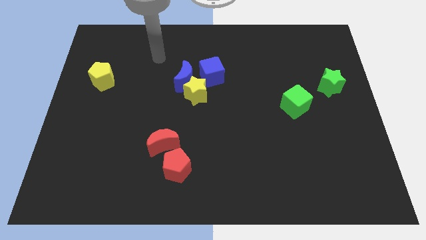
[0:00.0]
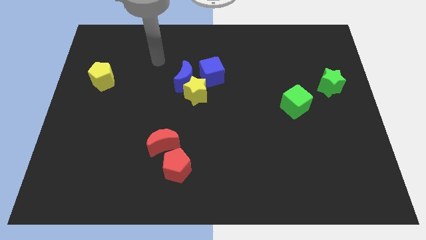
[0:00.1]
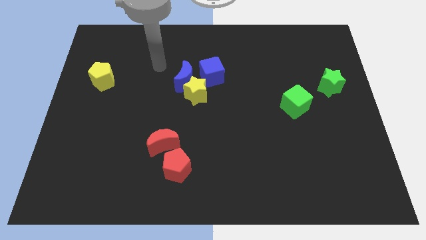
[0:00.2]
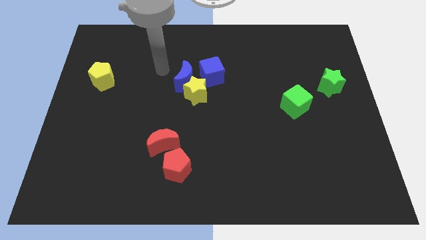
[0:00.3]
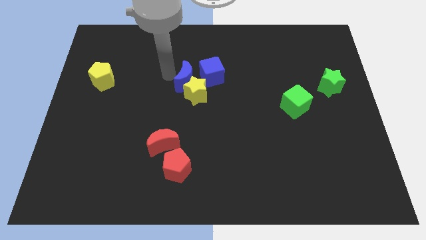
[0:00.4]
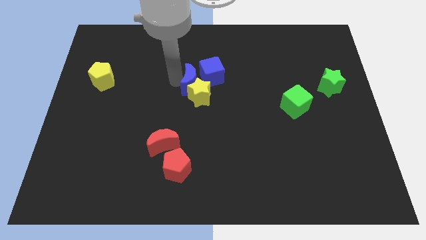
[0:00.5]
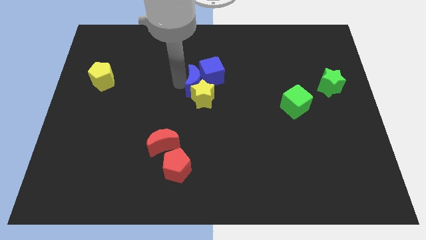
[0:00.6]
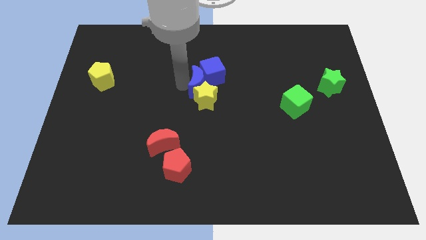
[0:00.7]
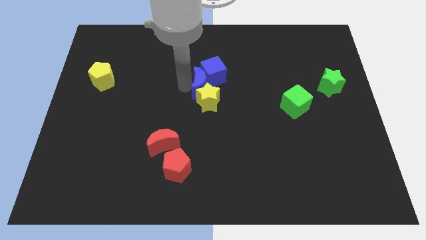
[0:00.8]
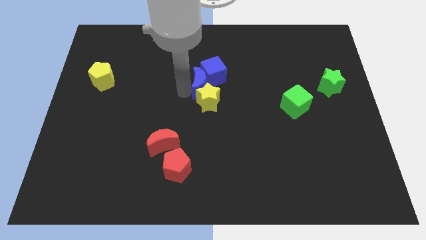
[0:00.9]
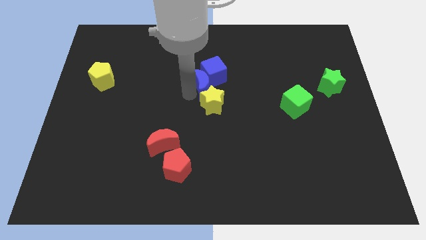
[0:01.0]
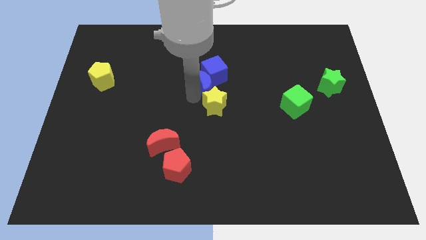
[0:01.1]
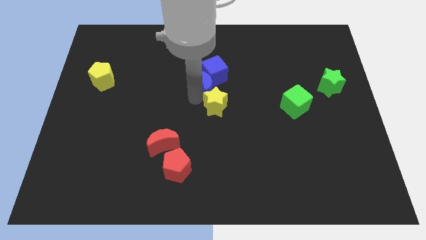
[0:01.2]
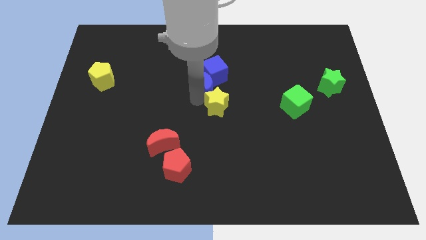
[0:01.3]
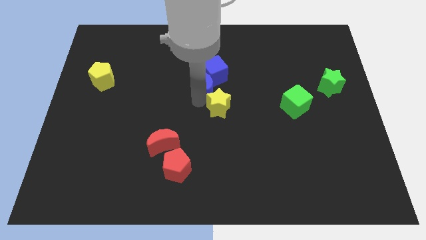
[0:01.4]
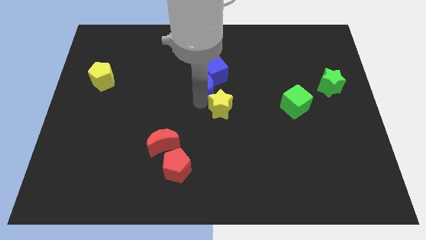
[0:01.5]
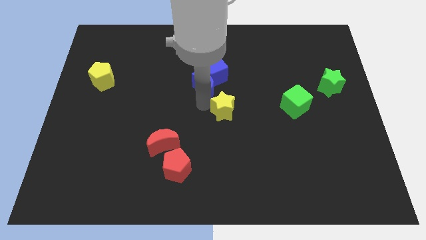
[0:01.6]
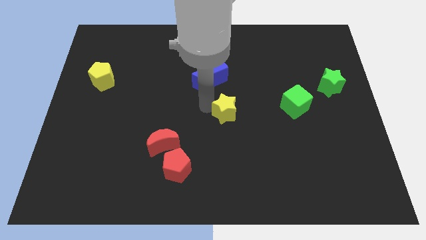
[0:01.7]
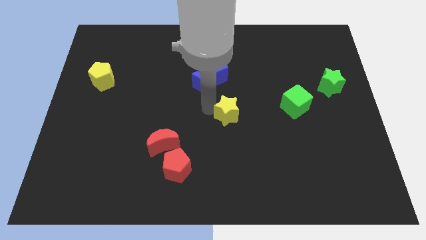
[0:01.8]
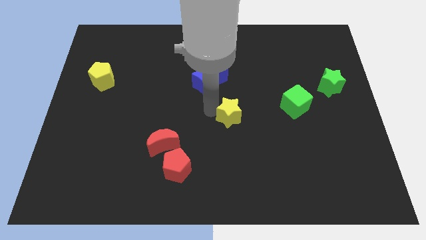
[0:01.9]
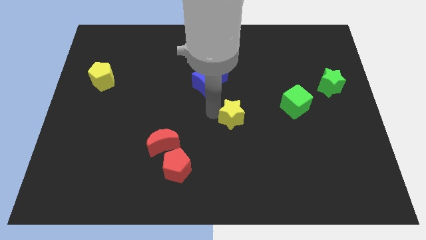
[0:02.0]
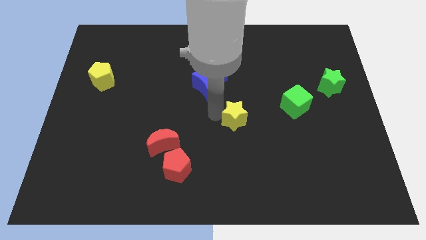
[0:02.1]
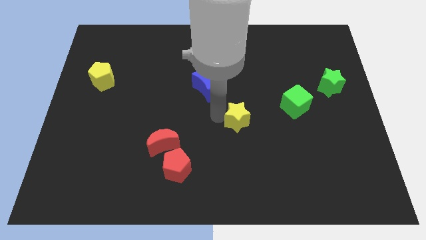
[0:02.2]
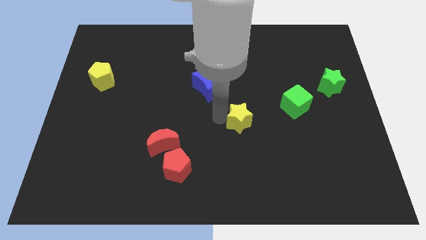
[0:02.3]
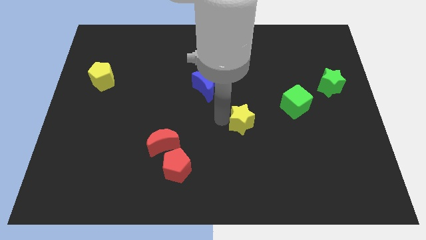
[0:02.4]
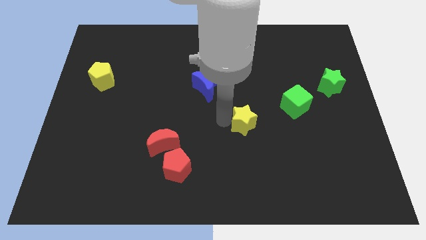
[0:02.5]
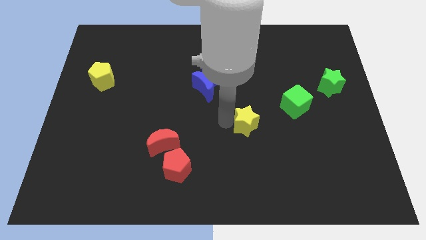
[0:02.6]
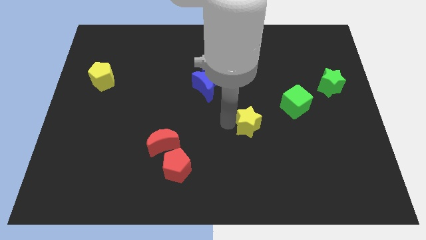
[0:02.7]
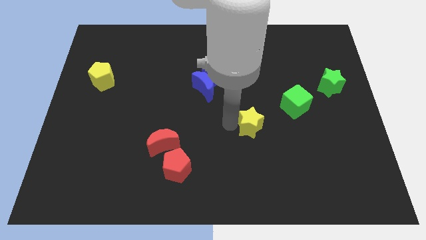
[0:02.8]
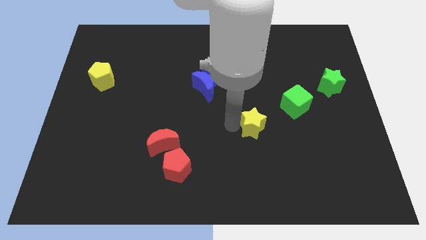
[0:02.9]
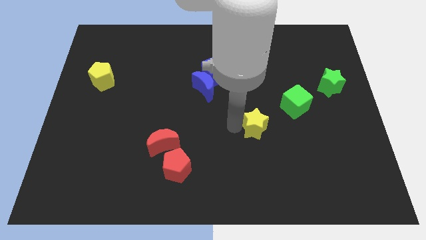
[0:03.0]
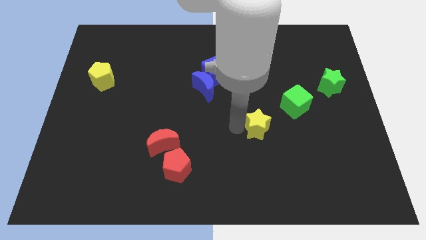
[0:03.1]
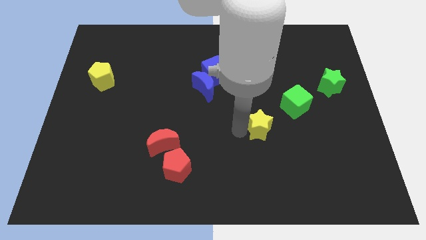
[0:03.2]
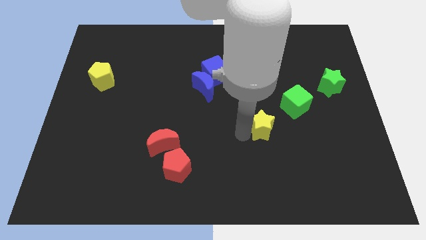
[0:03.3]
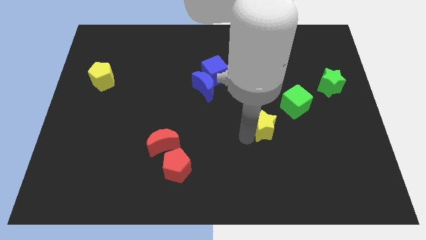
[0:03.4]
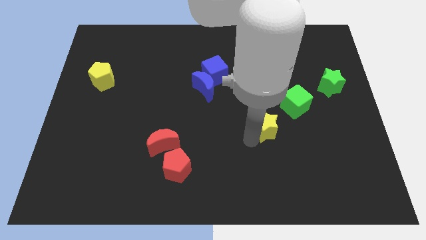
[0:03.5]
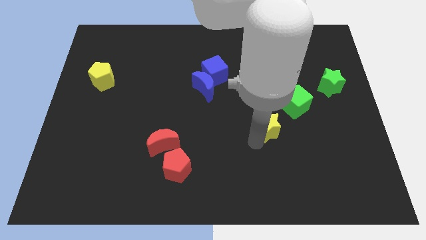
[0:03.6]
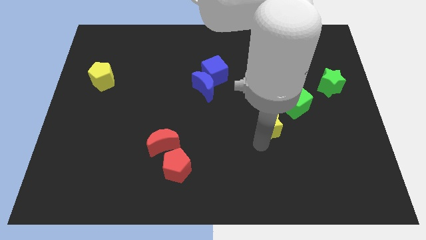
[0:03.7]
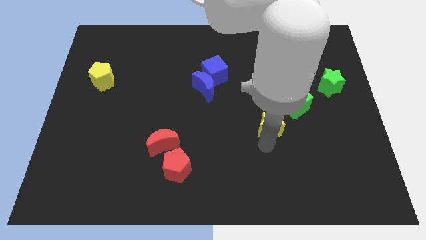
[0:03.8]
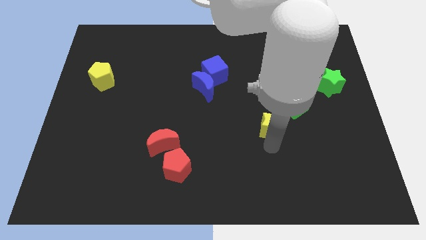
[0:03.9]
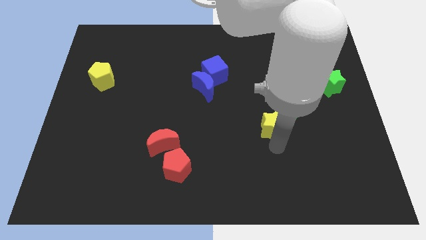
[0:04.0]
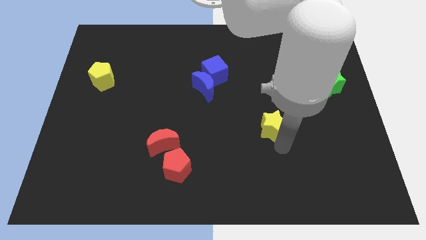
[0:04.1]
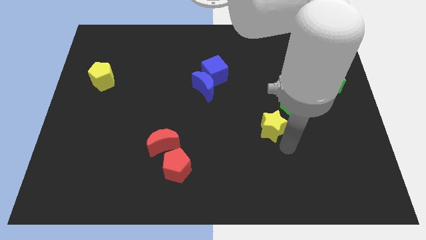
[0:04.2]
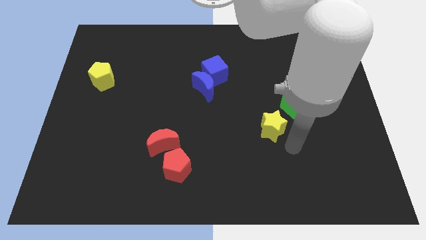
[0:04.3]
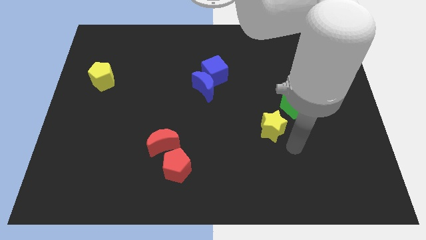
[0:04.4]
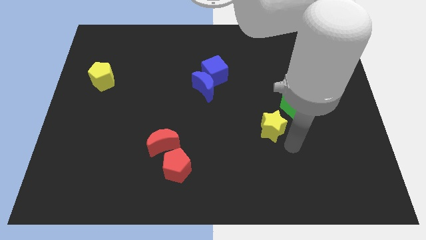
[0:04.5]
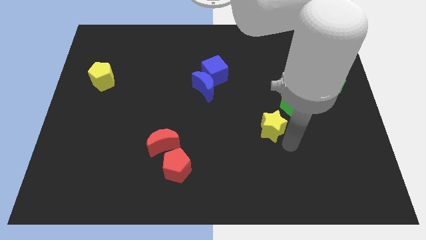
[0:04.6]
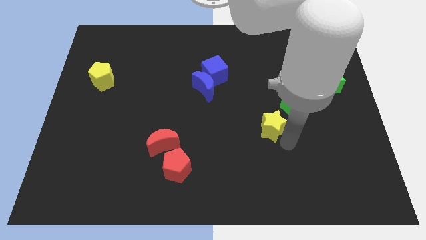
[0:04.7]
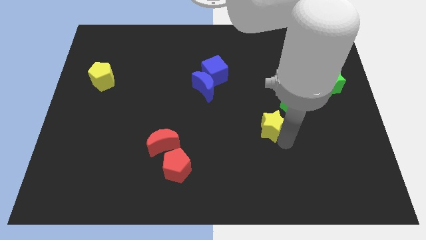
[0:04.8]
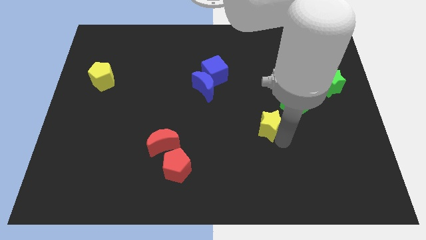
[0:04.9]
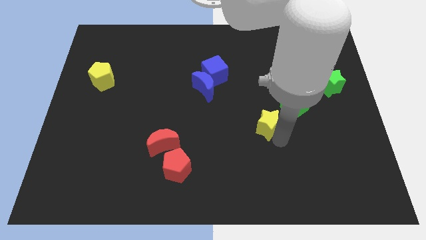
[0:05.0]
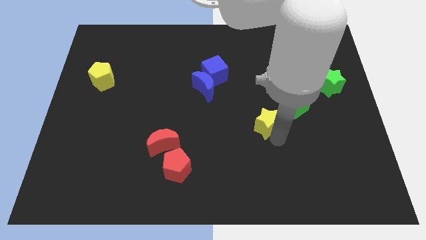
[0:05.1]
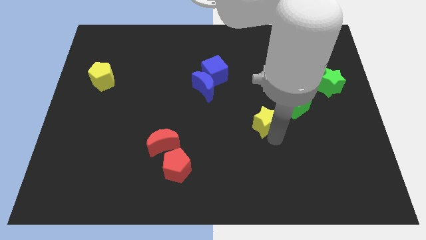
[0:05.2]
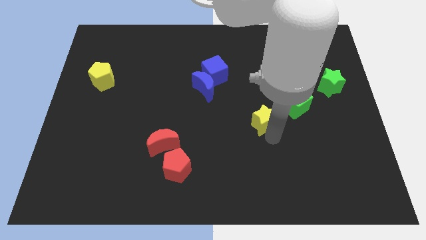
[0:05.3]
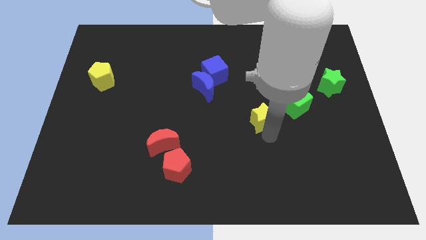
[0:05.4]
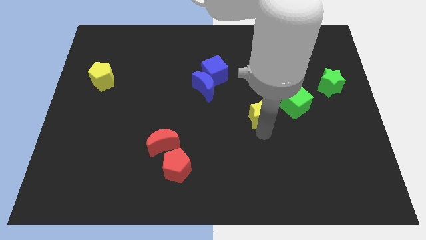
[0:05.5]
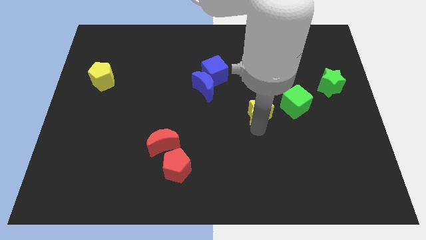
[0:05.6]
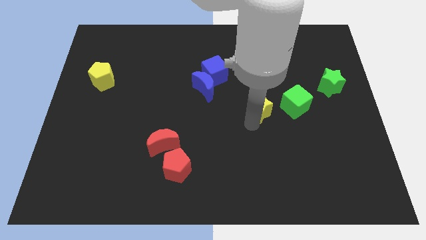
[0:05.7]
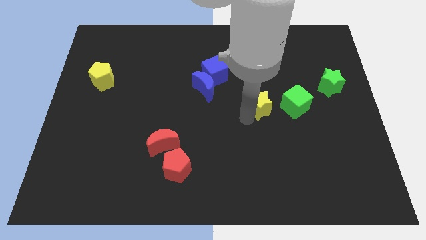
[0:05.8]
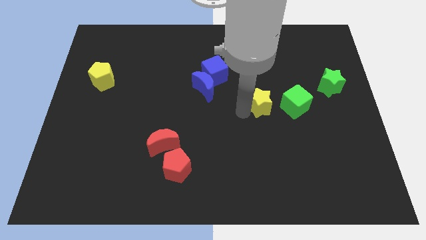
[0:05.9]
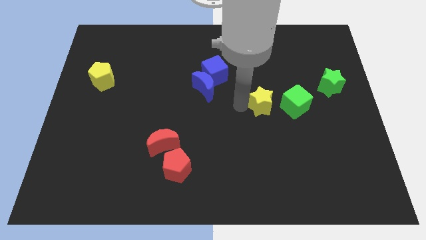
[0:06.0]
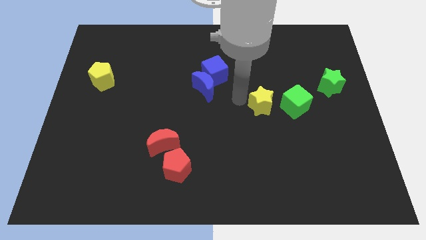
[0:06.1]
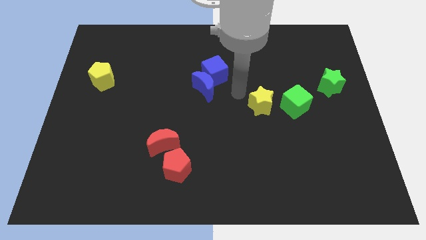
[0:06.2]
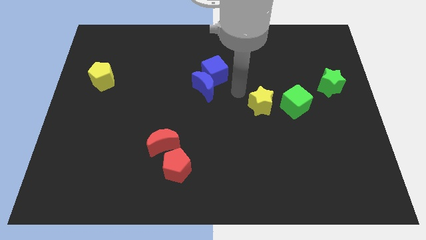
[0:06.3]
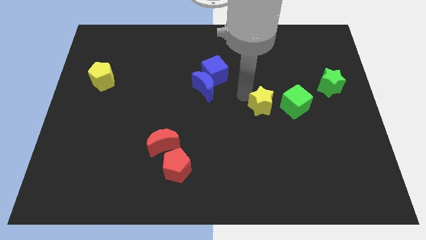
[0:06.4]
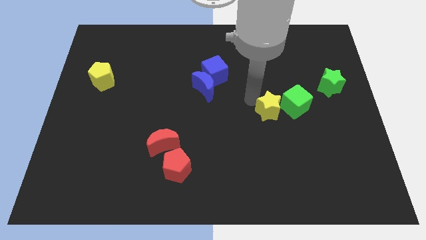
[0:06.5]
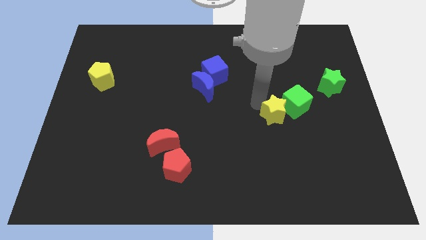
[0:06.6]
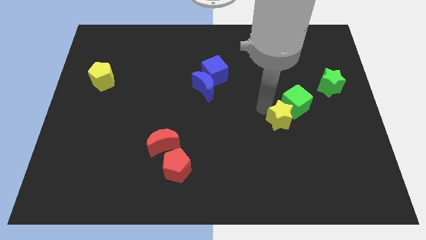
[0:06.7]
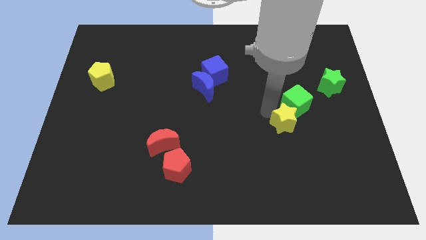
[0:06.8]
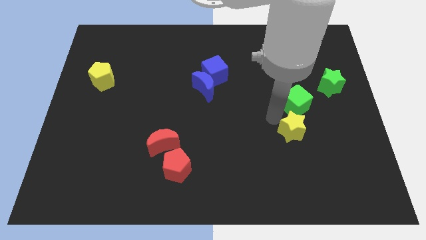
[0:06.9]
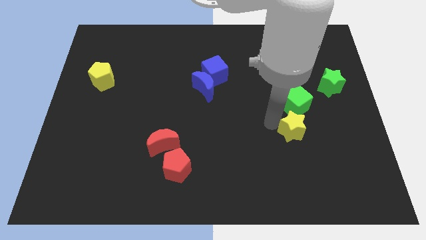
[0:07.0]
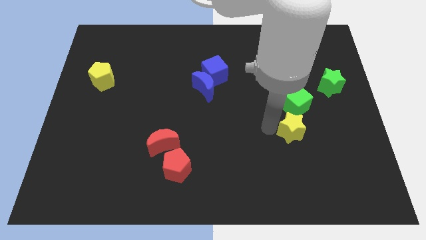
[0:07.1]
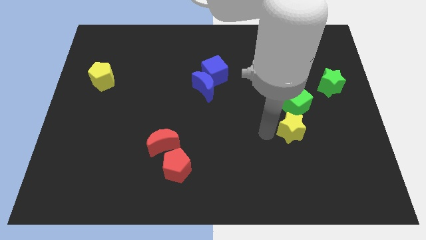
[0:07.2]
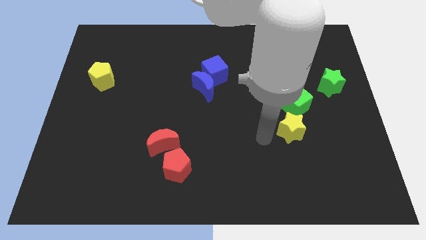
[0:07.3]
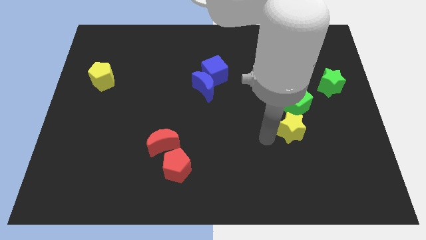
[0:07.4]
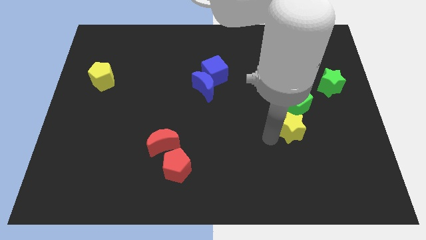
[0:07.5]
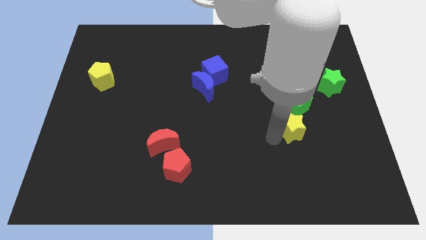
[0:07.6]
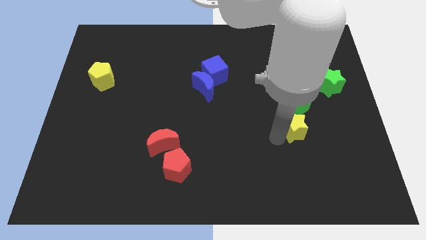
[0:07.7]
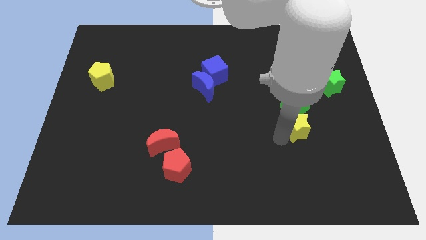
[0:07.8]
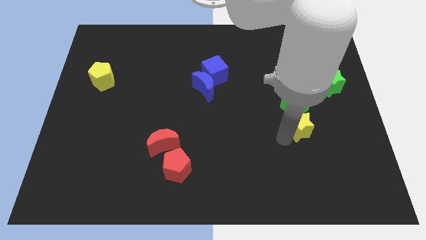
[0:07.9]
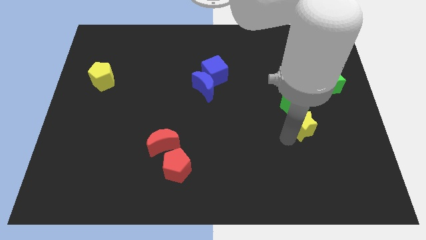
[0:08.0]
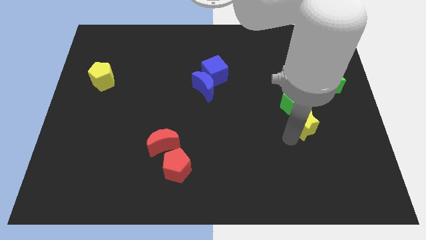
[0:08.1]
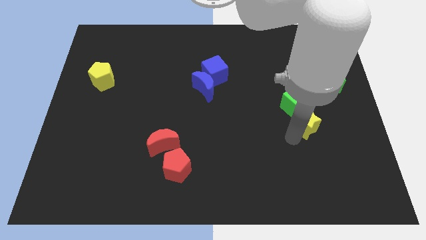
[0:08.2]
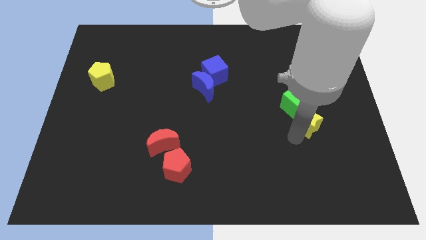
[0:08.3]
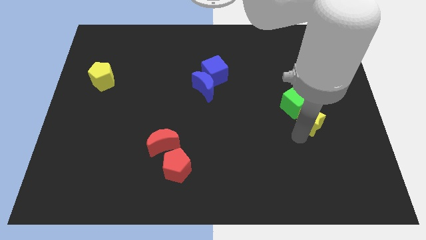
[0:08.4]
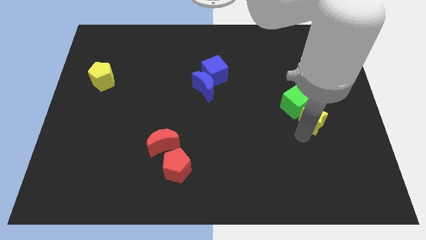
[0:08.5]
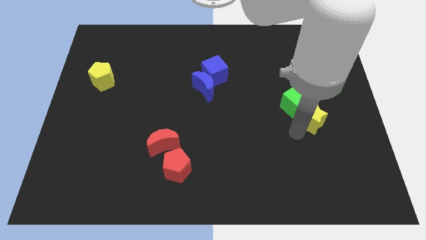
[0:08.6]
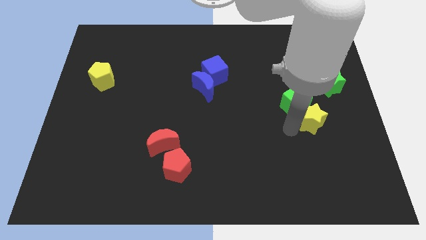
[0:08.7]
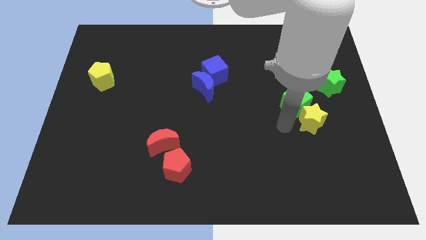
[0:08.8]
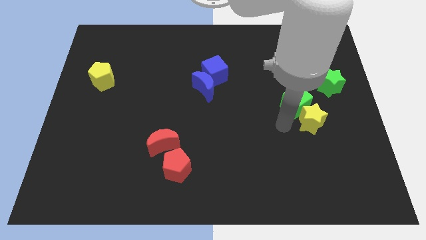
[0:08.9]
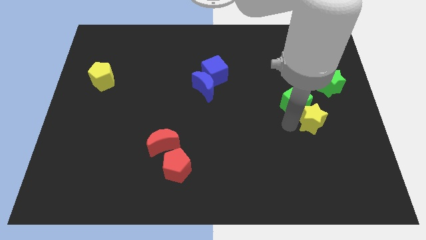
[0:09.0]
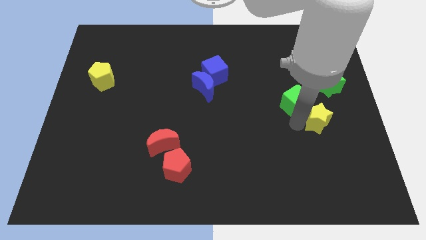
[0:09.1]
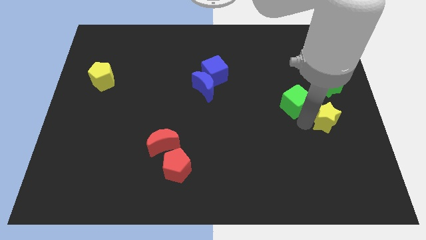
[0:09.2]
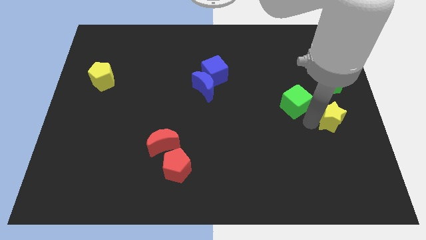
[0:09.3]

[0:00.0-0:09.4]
slide the yellow star to the right side of the board
